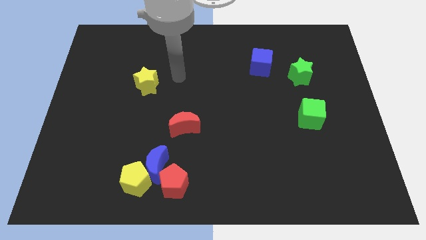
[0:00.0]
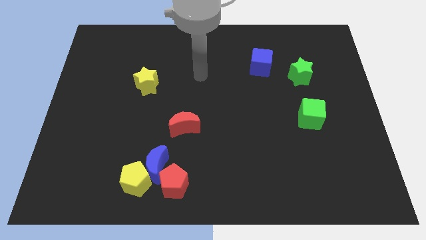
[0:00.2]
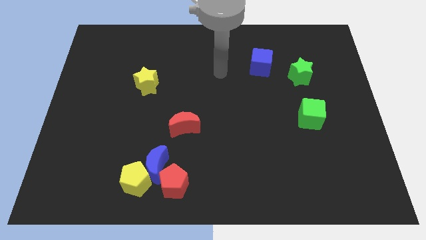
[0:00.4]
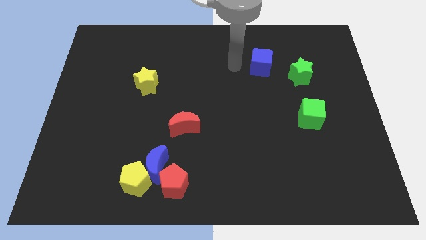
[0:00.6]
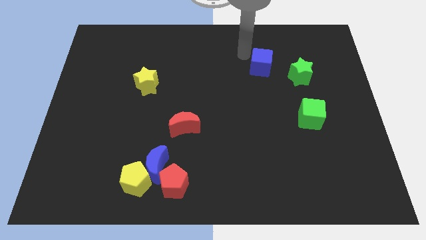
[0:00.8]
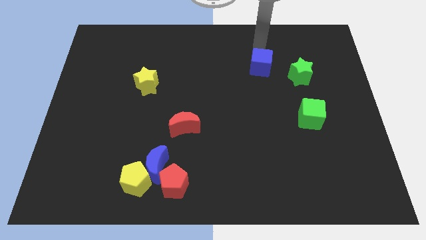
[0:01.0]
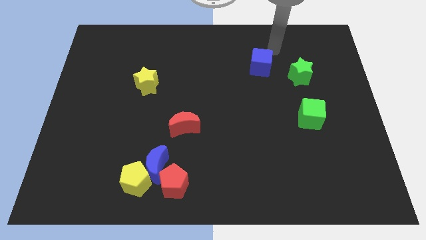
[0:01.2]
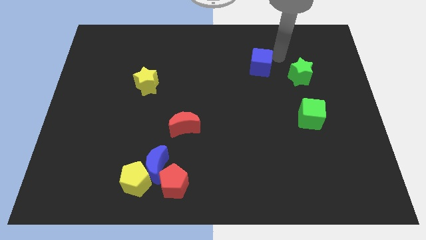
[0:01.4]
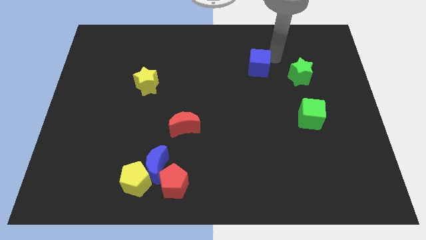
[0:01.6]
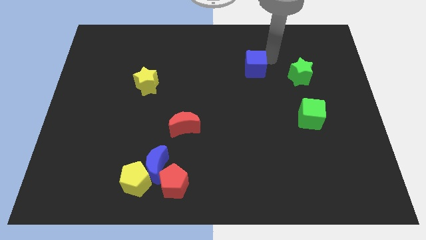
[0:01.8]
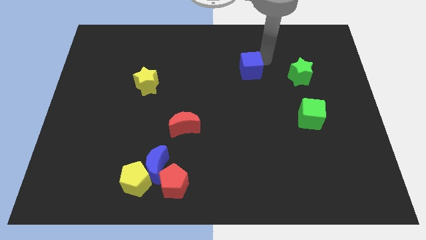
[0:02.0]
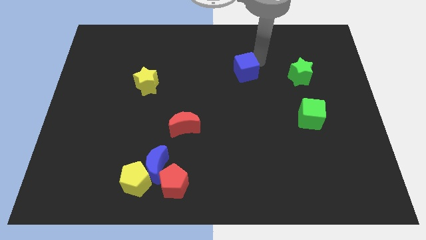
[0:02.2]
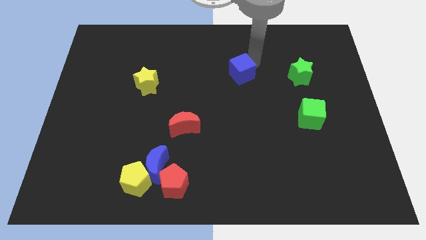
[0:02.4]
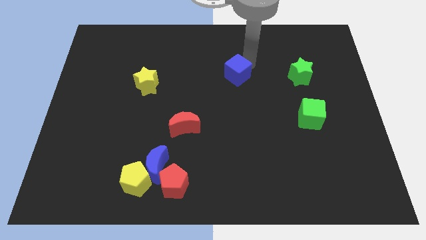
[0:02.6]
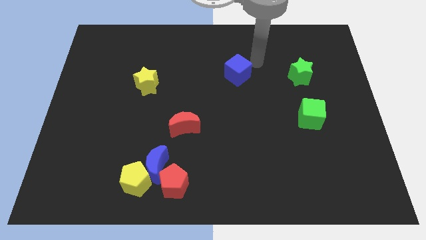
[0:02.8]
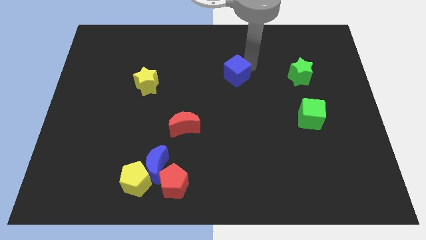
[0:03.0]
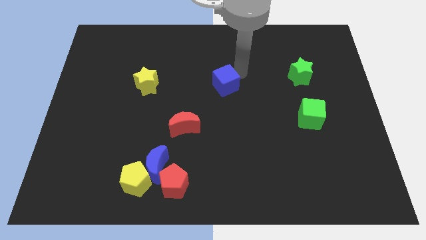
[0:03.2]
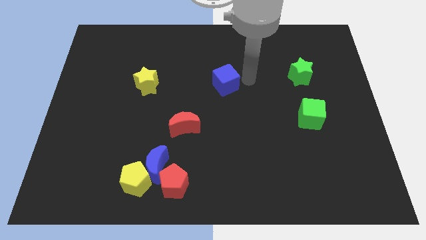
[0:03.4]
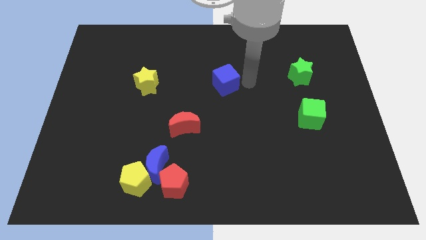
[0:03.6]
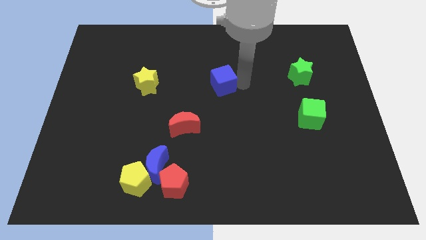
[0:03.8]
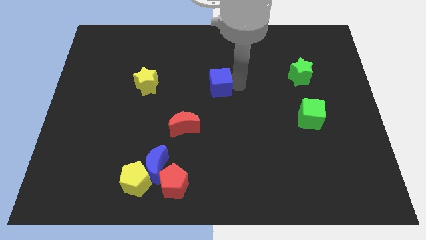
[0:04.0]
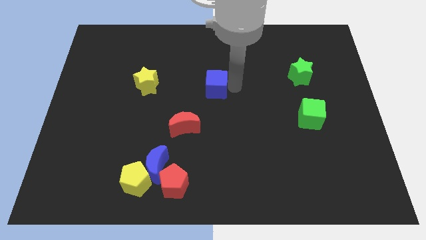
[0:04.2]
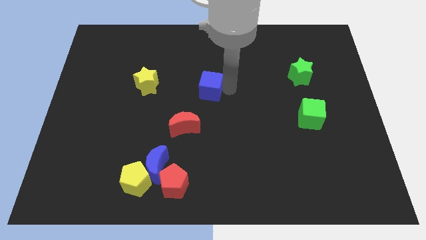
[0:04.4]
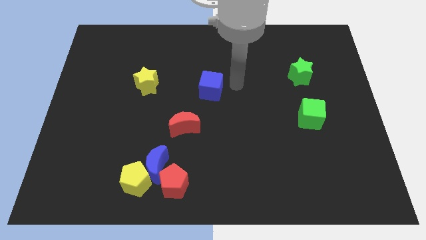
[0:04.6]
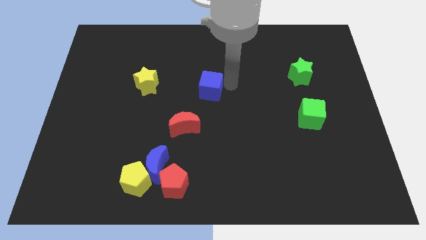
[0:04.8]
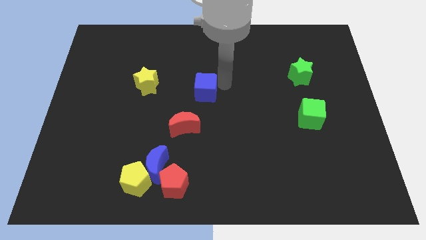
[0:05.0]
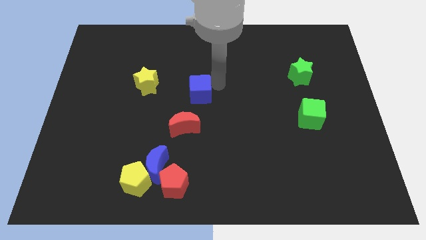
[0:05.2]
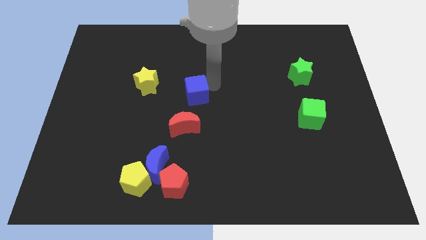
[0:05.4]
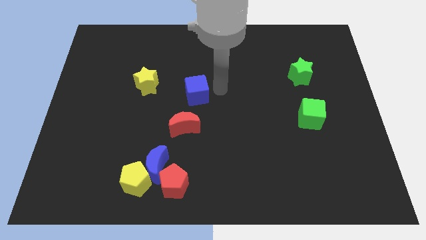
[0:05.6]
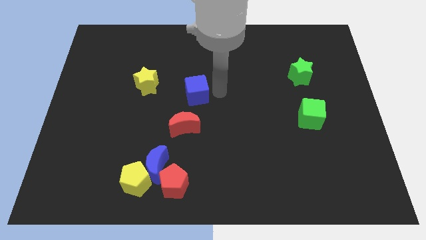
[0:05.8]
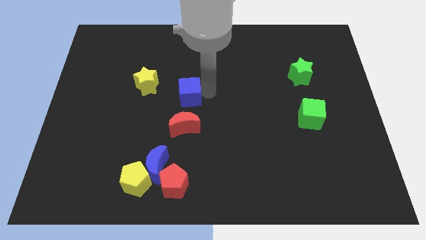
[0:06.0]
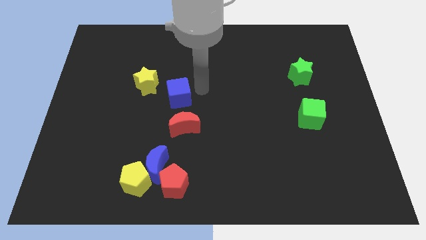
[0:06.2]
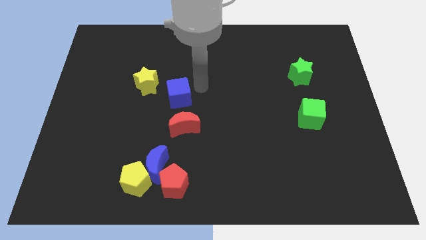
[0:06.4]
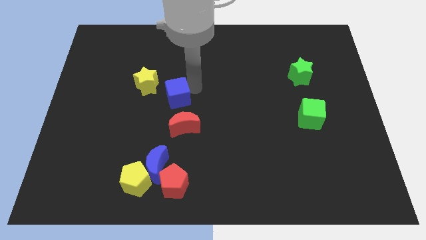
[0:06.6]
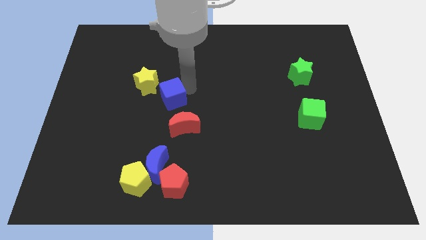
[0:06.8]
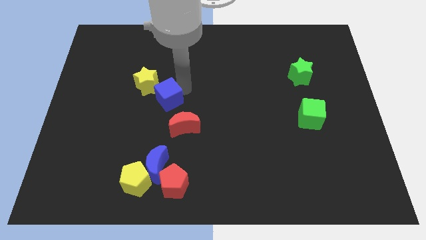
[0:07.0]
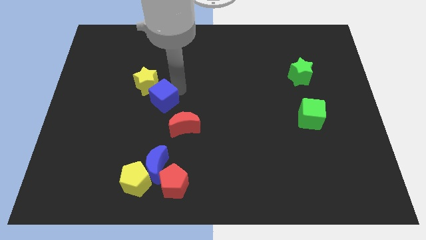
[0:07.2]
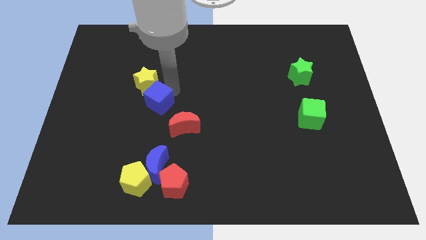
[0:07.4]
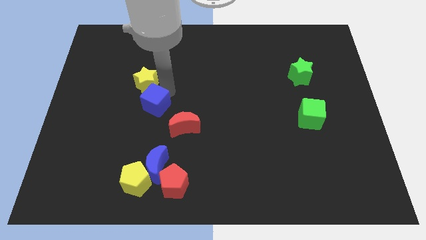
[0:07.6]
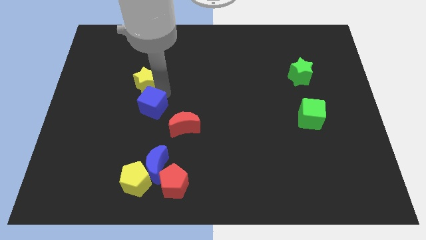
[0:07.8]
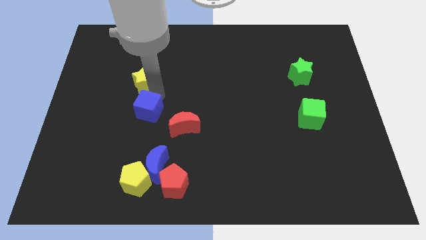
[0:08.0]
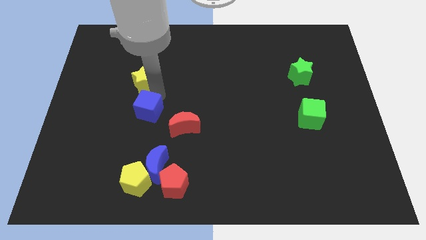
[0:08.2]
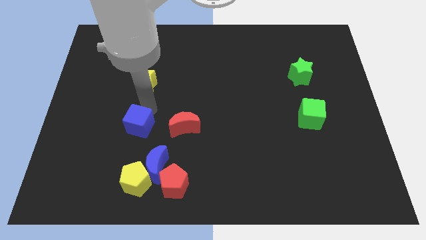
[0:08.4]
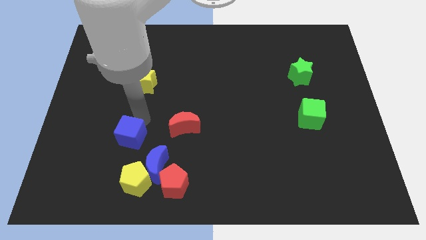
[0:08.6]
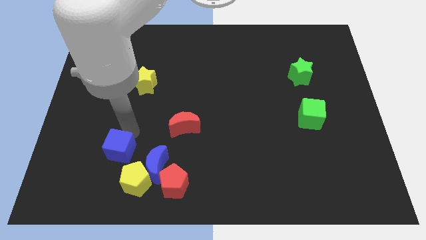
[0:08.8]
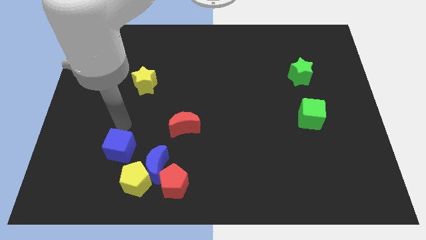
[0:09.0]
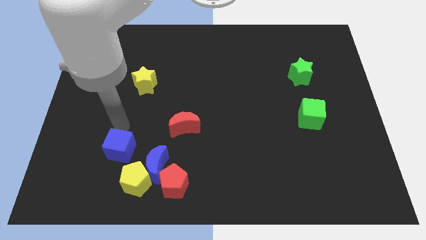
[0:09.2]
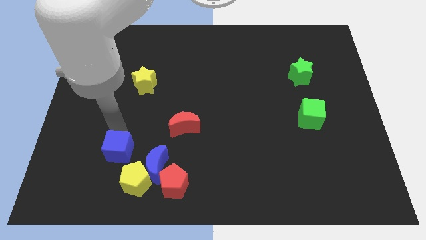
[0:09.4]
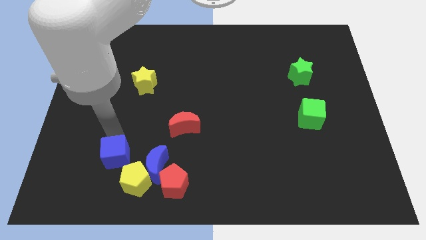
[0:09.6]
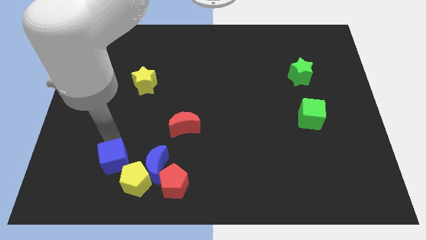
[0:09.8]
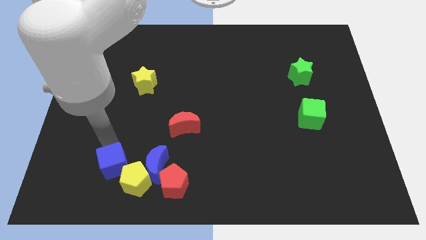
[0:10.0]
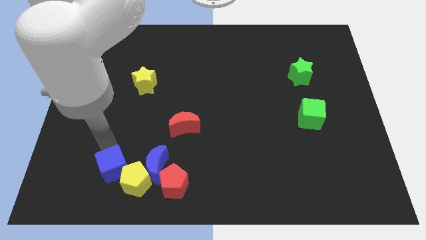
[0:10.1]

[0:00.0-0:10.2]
put the blue cube towards the yellow pentagon

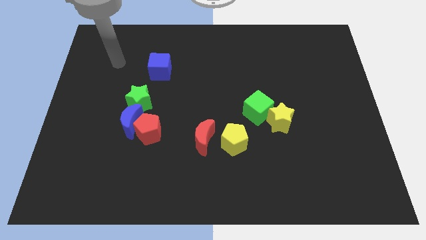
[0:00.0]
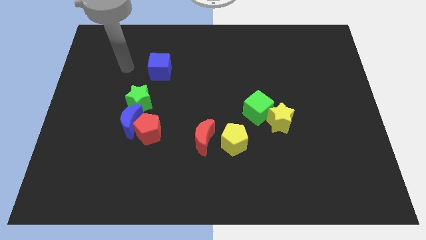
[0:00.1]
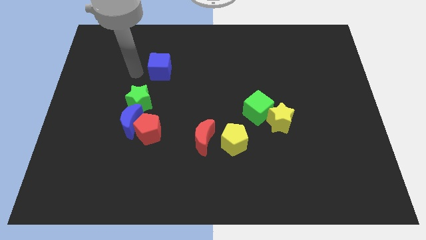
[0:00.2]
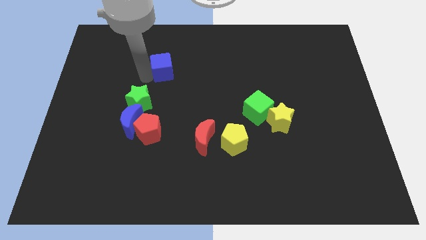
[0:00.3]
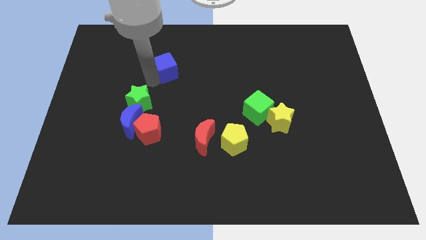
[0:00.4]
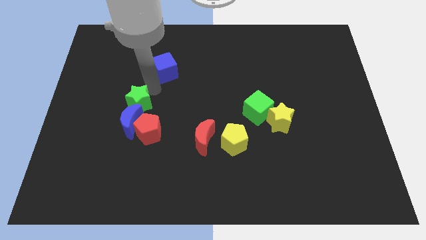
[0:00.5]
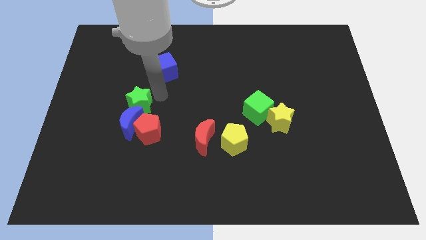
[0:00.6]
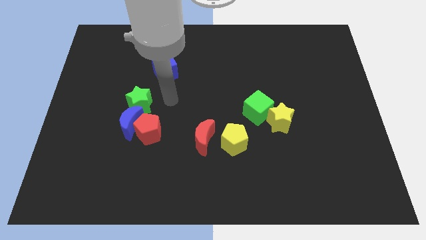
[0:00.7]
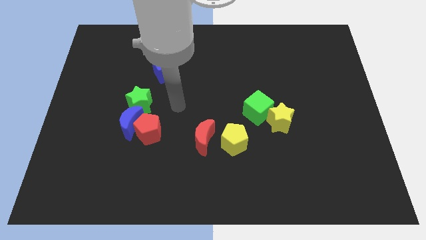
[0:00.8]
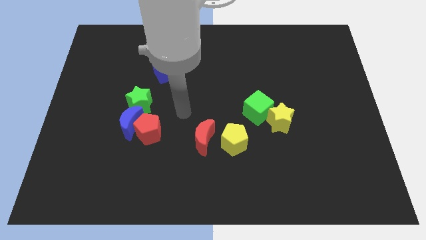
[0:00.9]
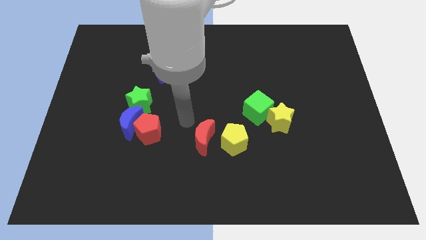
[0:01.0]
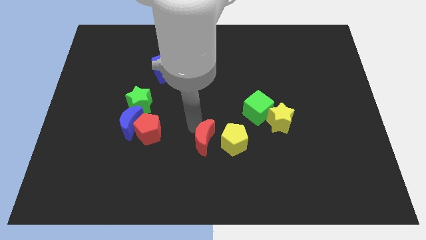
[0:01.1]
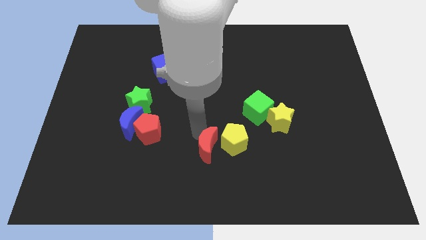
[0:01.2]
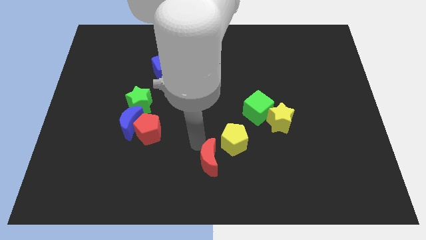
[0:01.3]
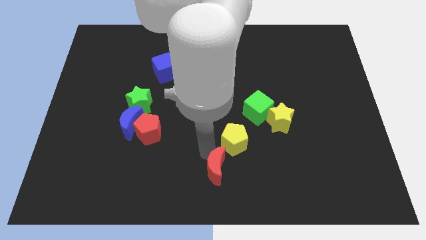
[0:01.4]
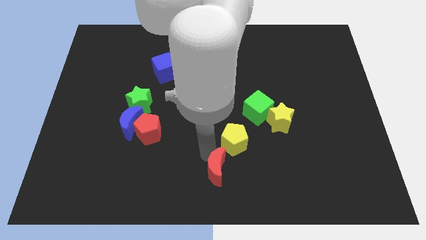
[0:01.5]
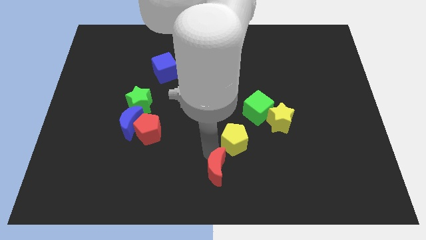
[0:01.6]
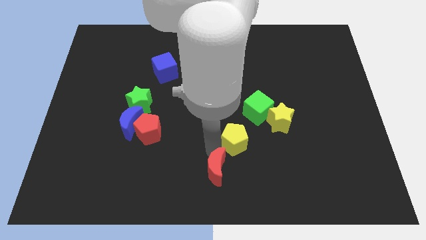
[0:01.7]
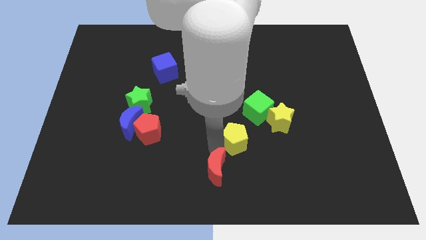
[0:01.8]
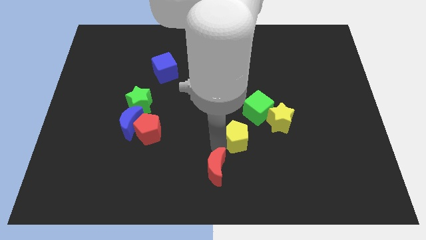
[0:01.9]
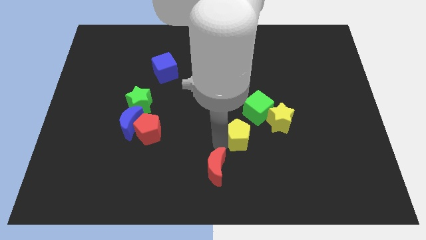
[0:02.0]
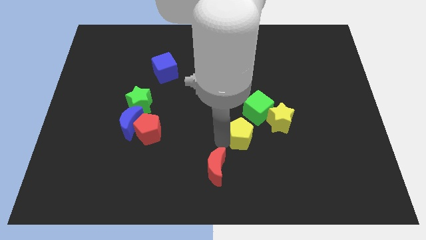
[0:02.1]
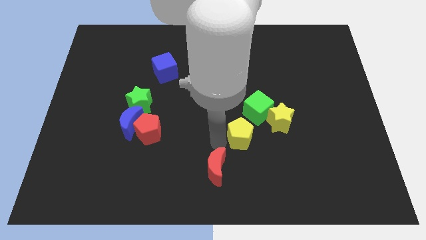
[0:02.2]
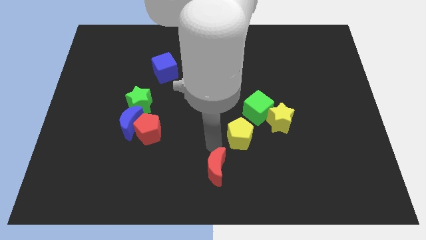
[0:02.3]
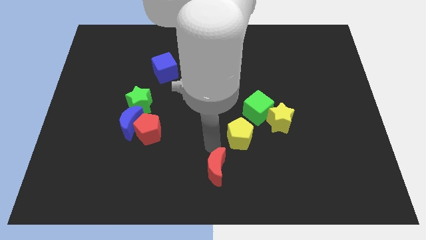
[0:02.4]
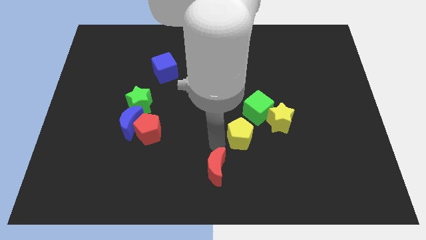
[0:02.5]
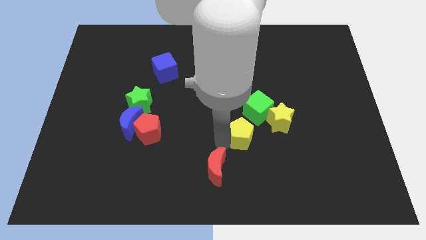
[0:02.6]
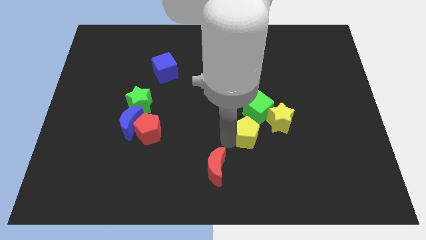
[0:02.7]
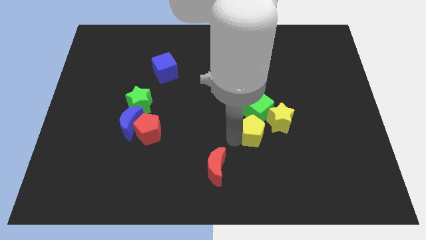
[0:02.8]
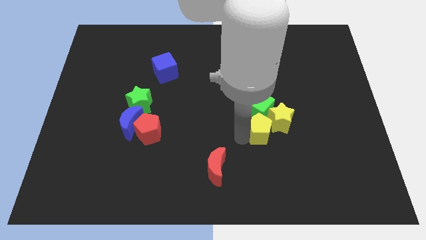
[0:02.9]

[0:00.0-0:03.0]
move the yellow pentagon close to the yellow star
